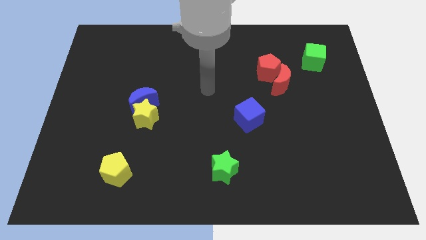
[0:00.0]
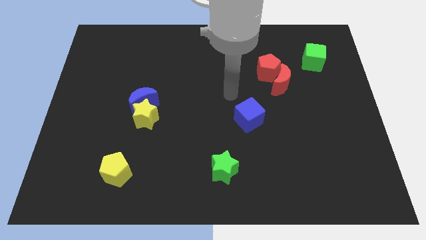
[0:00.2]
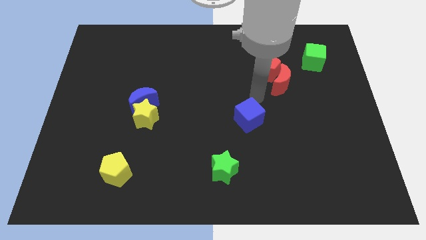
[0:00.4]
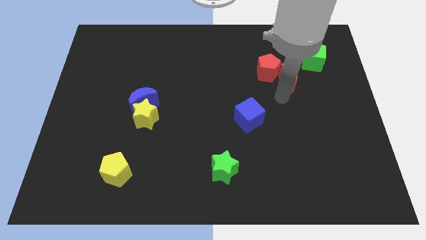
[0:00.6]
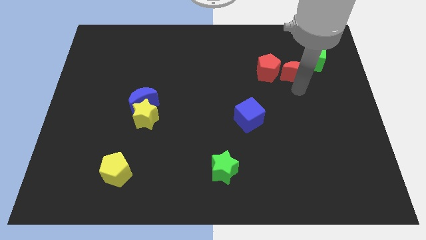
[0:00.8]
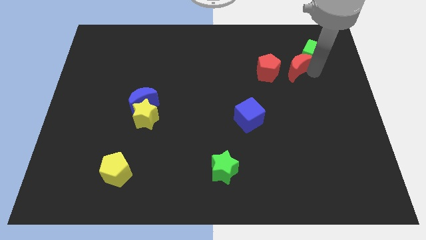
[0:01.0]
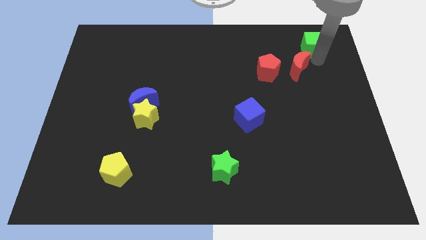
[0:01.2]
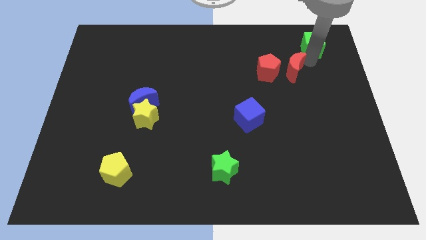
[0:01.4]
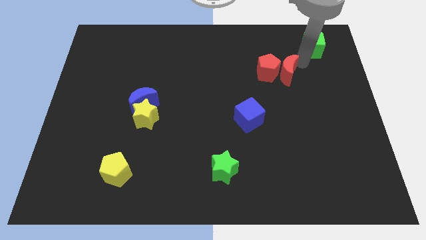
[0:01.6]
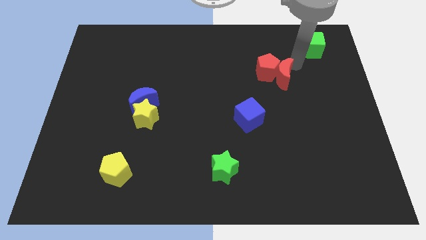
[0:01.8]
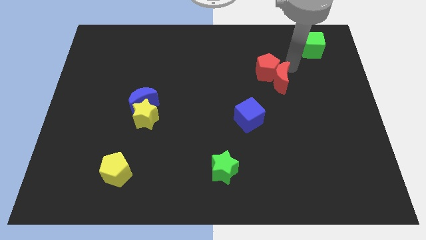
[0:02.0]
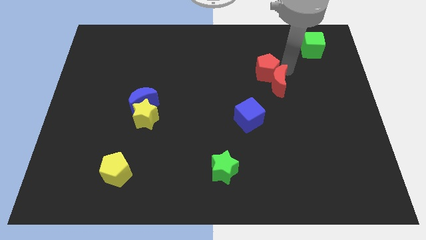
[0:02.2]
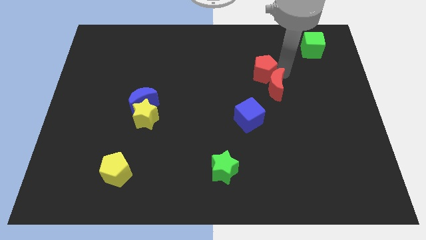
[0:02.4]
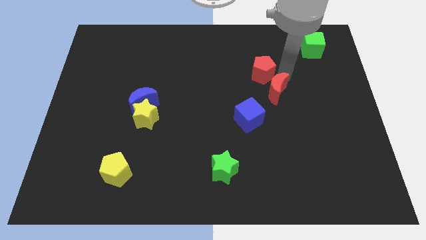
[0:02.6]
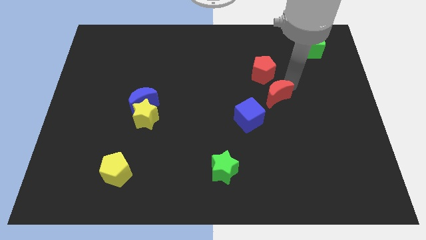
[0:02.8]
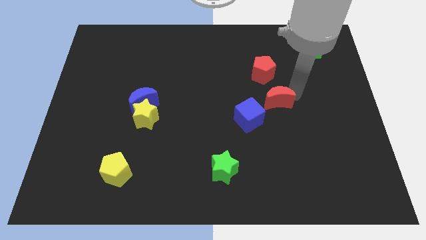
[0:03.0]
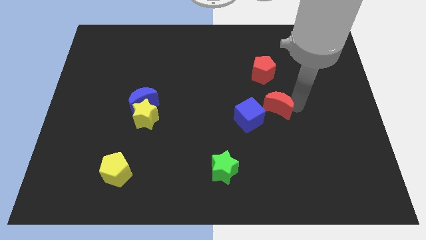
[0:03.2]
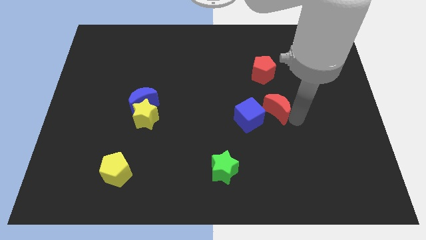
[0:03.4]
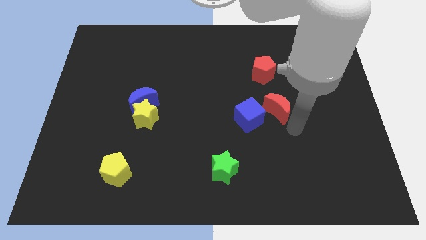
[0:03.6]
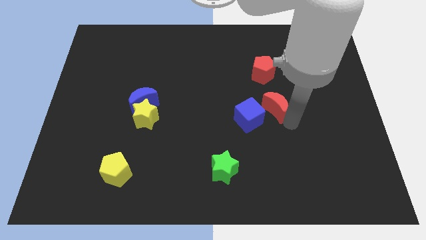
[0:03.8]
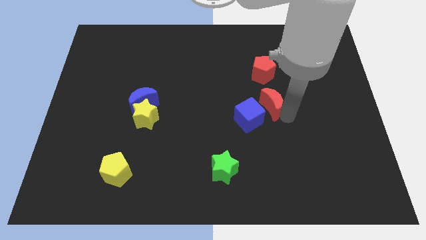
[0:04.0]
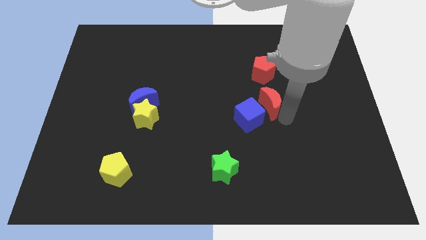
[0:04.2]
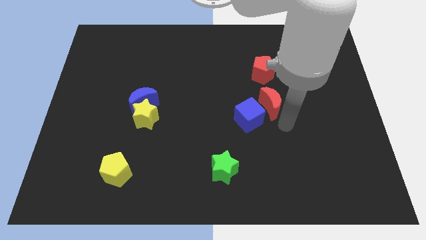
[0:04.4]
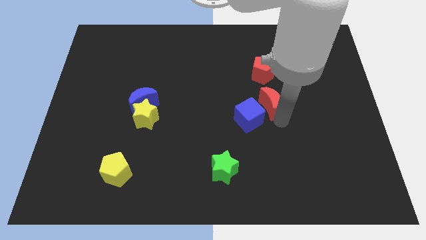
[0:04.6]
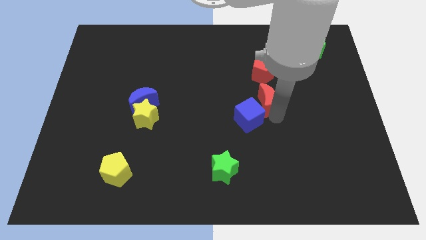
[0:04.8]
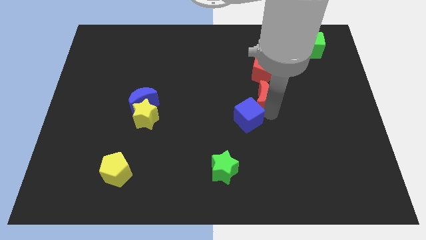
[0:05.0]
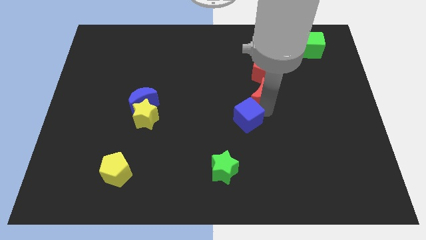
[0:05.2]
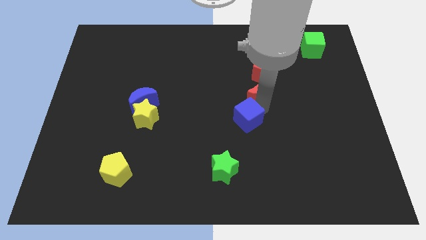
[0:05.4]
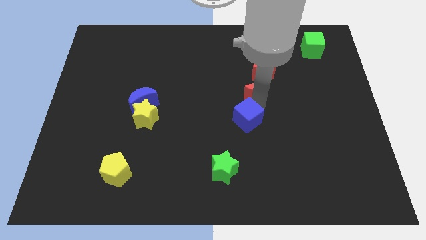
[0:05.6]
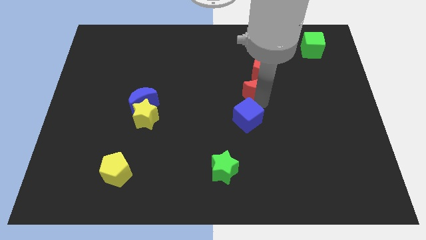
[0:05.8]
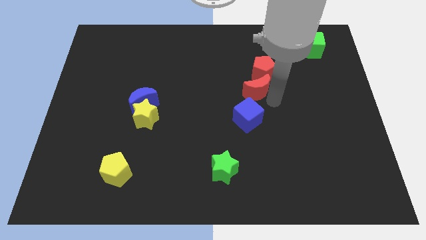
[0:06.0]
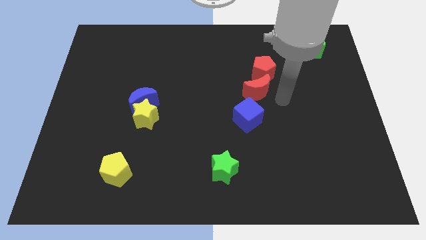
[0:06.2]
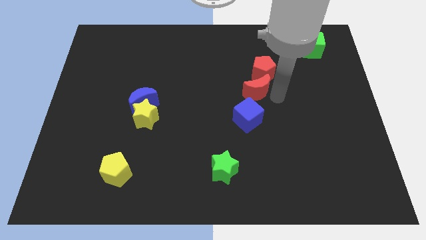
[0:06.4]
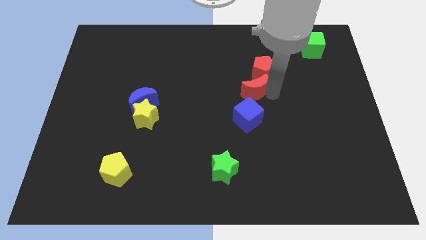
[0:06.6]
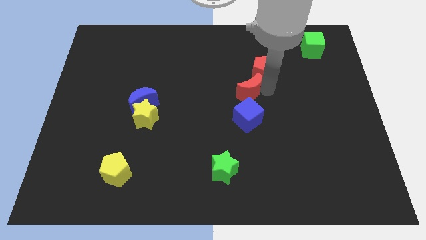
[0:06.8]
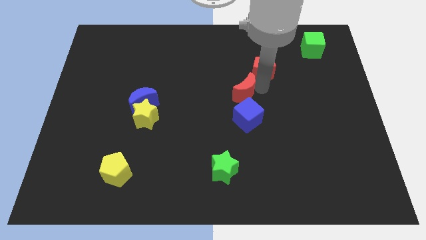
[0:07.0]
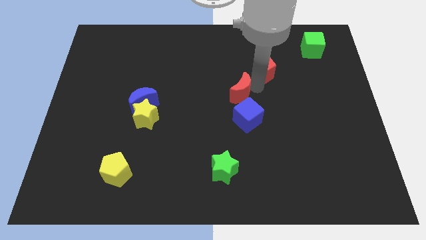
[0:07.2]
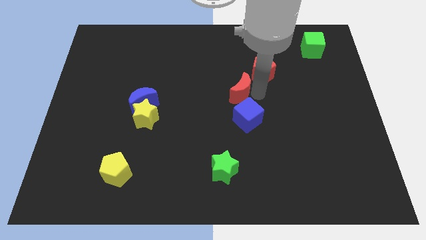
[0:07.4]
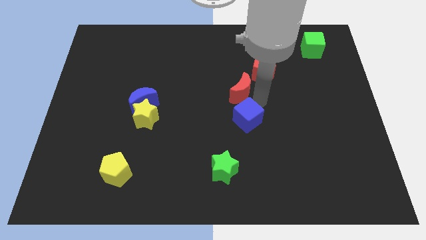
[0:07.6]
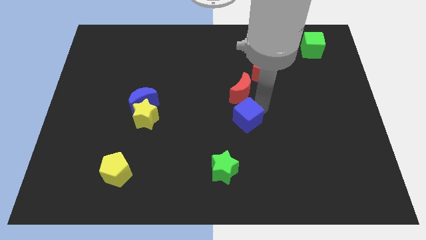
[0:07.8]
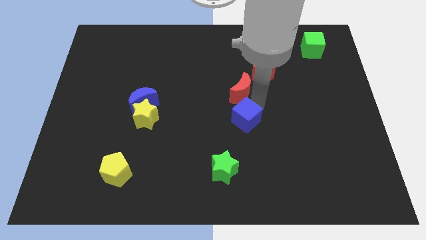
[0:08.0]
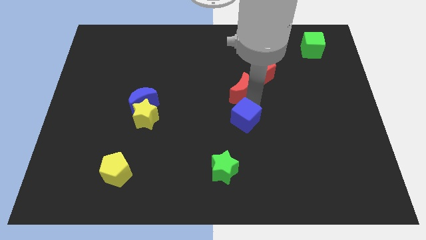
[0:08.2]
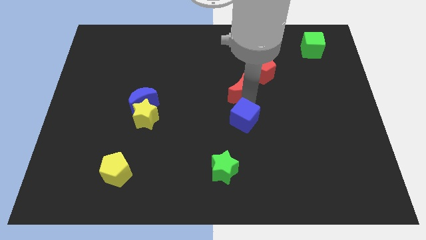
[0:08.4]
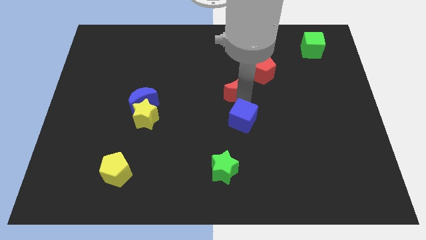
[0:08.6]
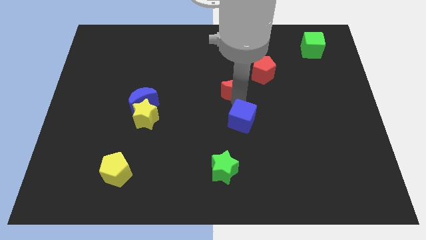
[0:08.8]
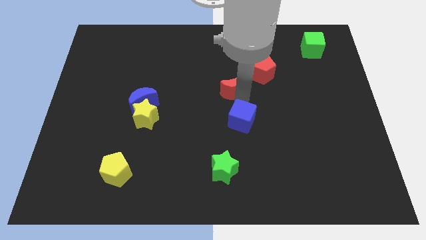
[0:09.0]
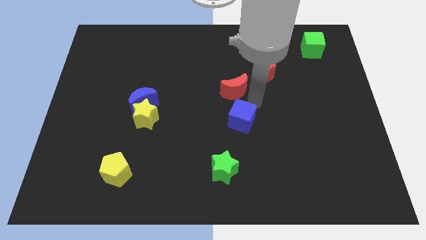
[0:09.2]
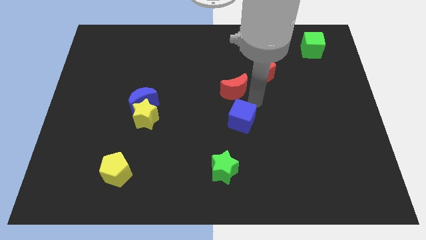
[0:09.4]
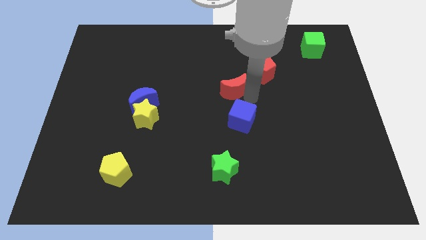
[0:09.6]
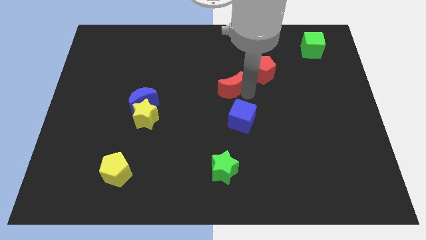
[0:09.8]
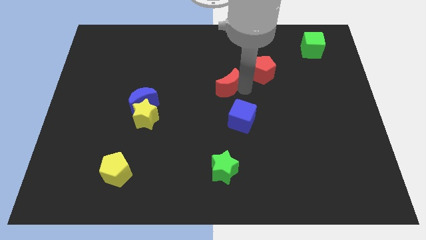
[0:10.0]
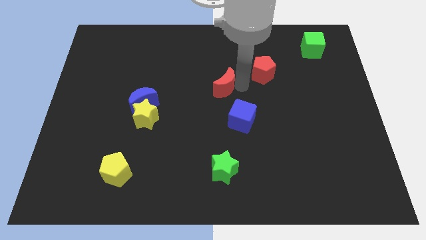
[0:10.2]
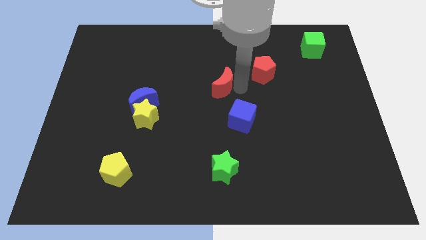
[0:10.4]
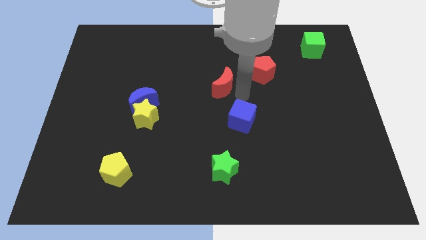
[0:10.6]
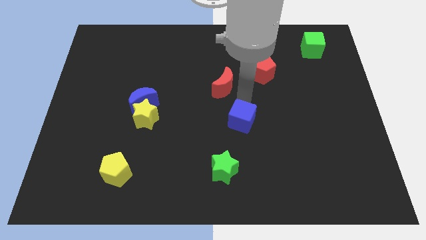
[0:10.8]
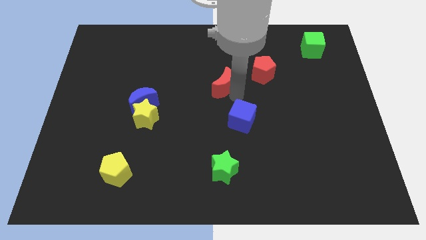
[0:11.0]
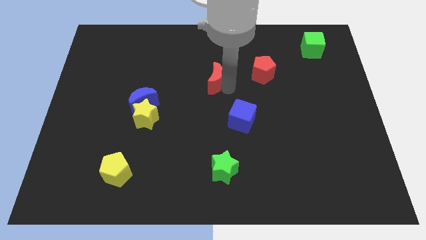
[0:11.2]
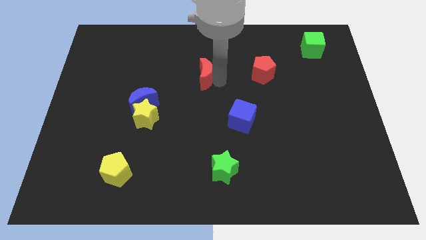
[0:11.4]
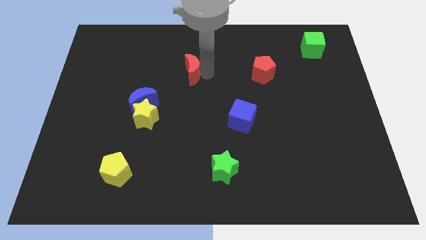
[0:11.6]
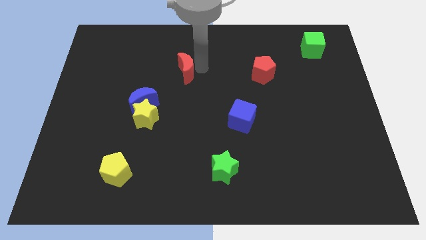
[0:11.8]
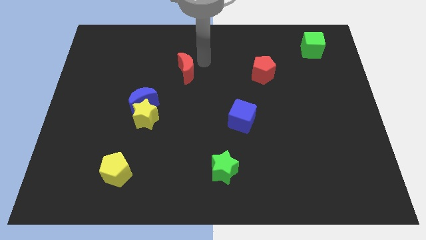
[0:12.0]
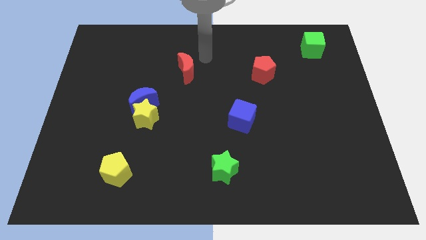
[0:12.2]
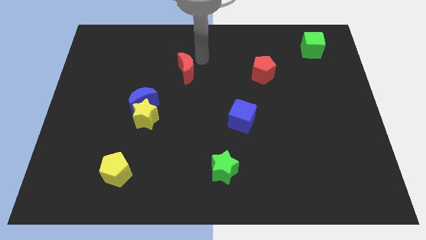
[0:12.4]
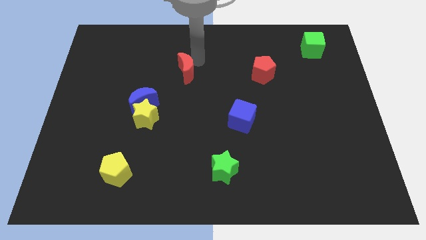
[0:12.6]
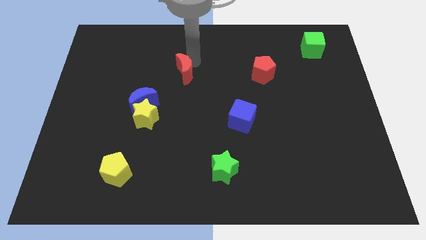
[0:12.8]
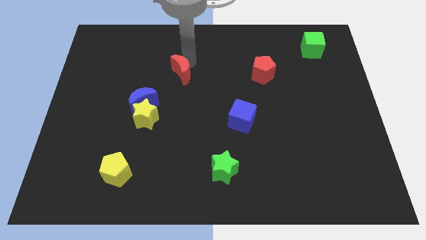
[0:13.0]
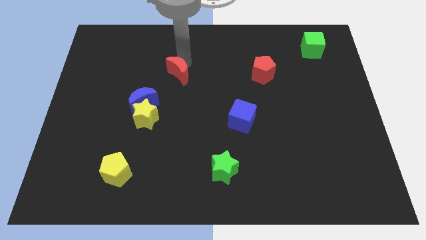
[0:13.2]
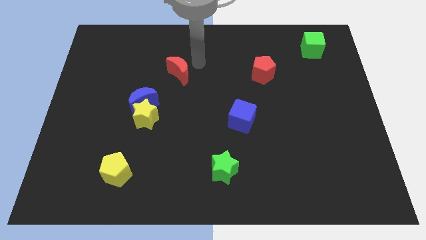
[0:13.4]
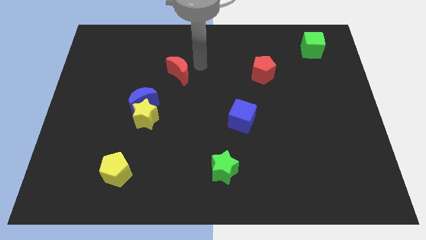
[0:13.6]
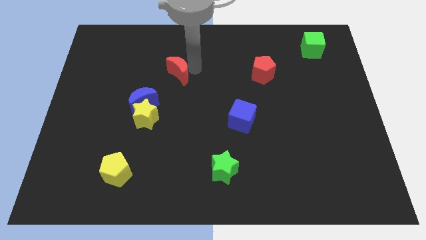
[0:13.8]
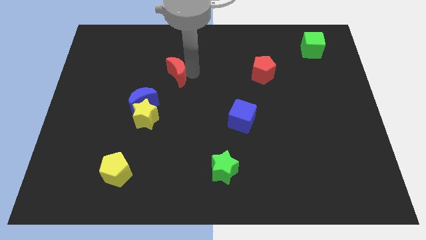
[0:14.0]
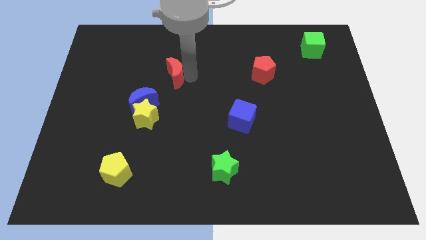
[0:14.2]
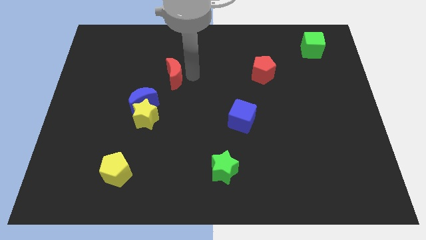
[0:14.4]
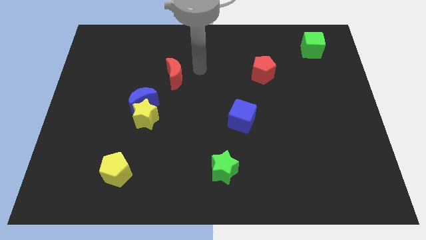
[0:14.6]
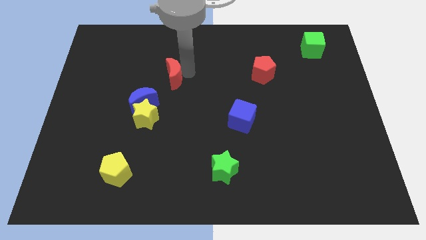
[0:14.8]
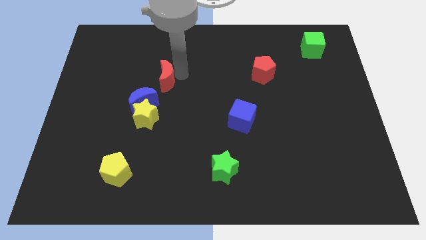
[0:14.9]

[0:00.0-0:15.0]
push the red moon to the top side of the yellow star
